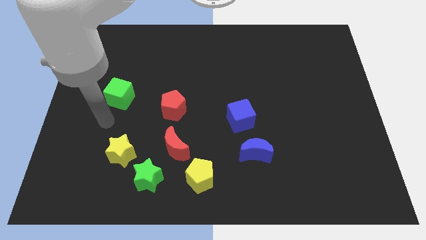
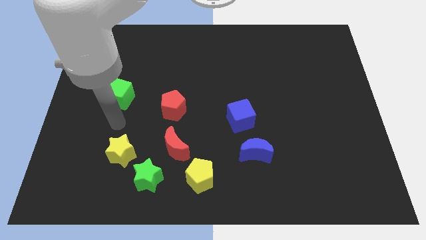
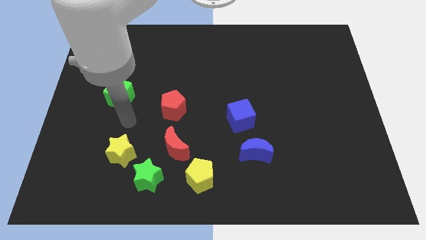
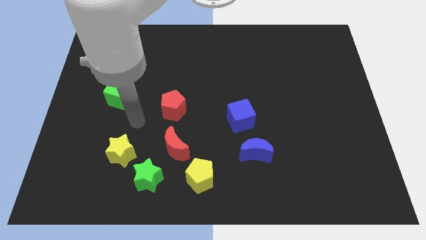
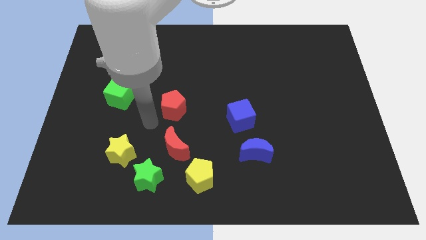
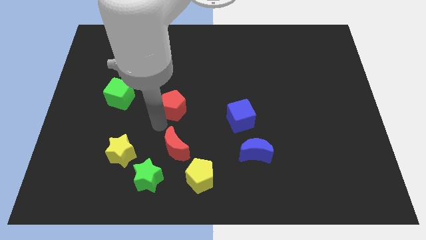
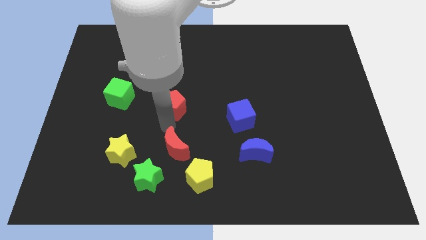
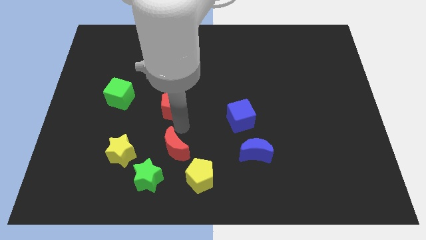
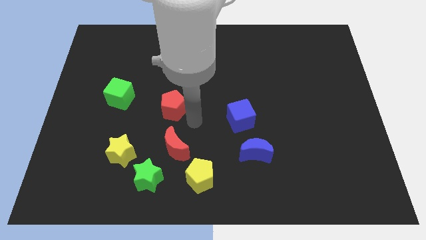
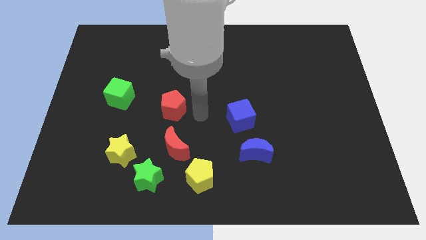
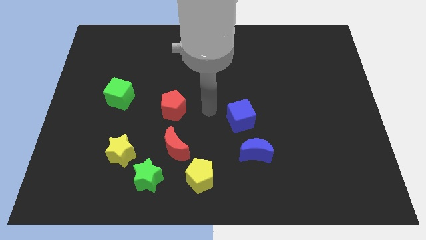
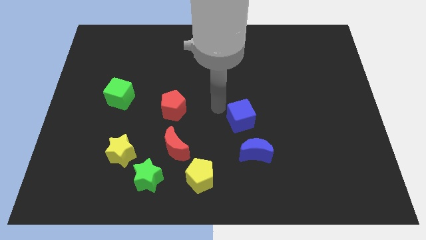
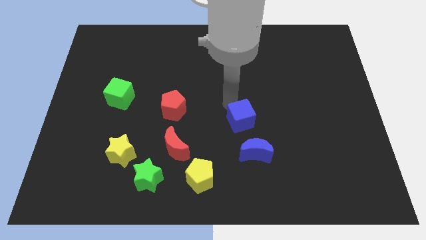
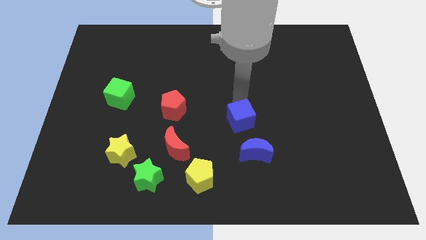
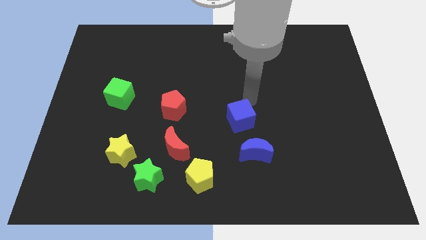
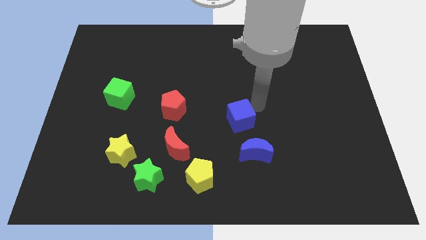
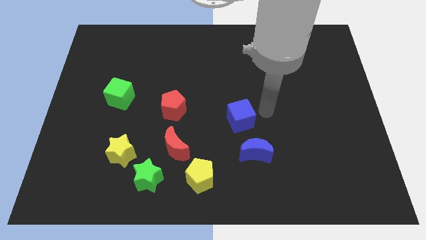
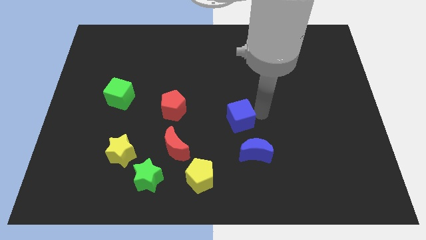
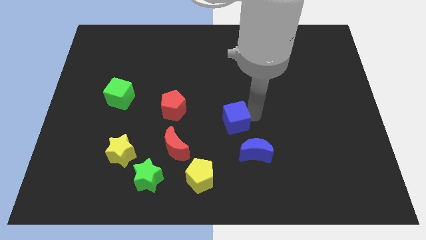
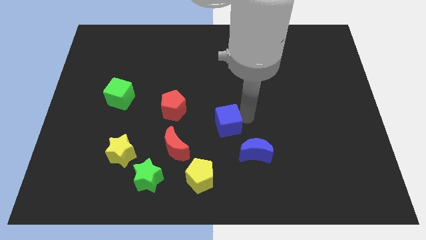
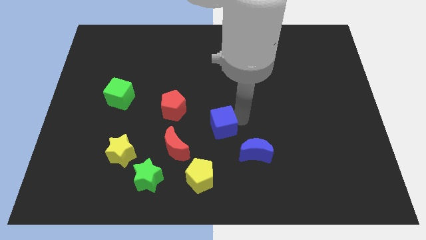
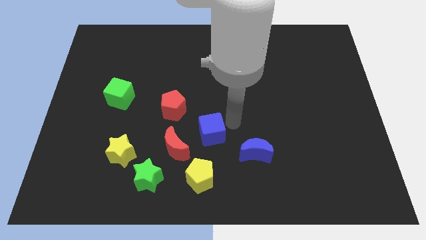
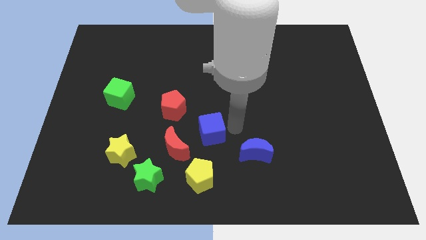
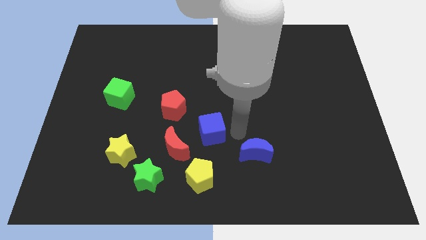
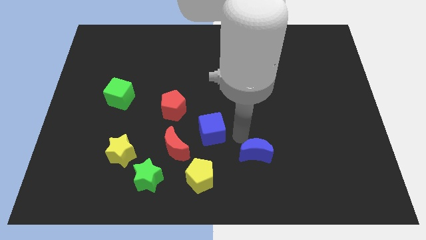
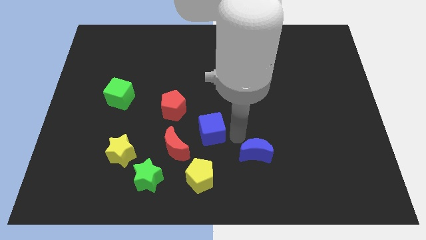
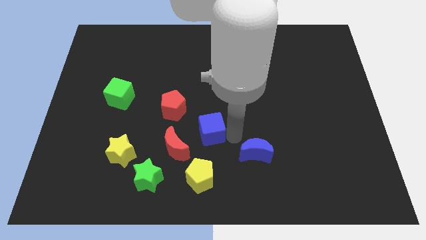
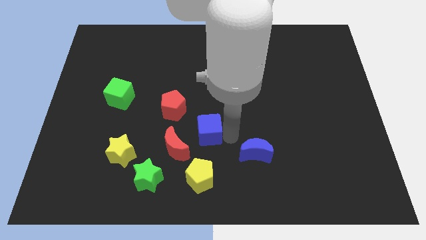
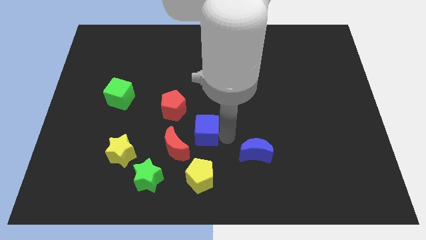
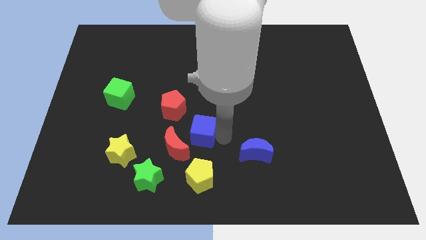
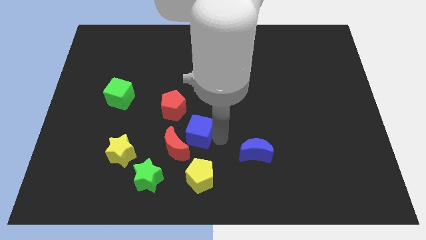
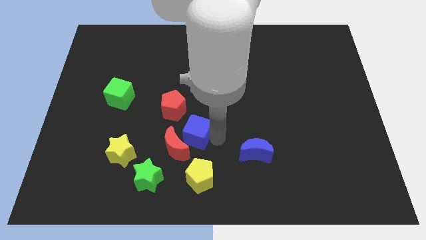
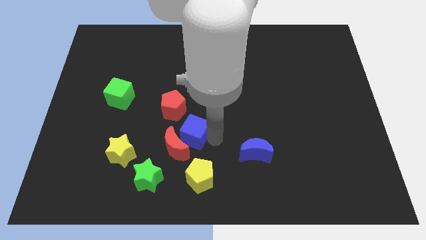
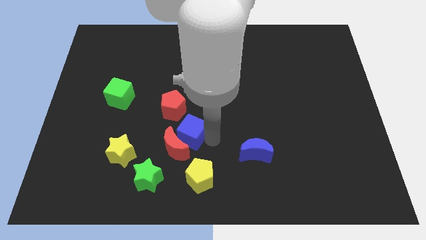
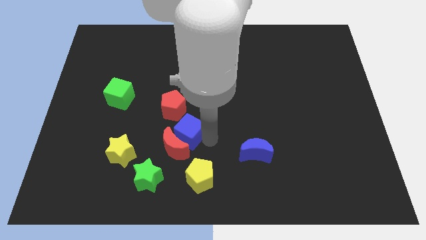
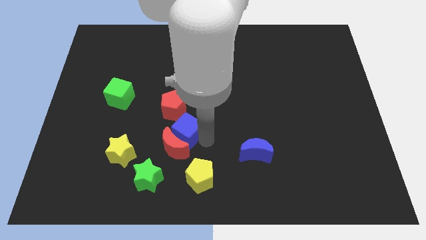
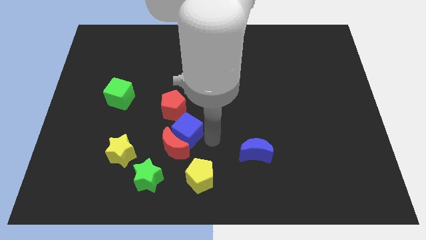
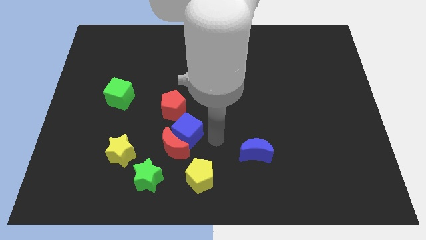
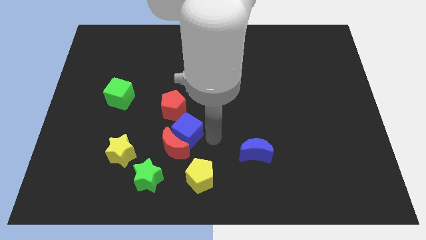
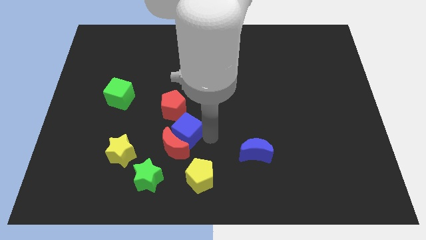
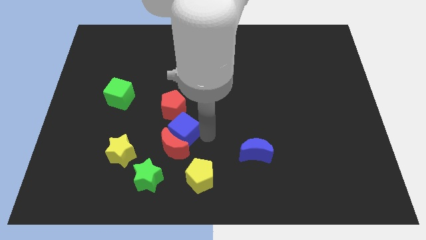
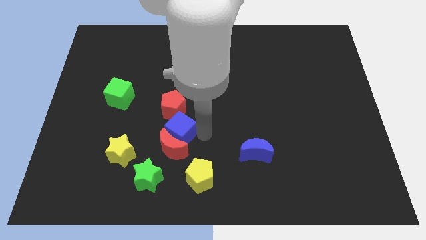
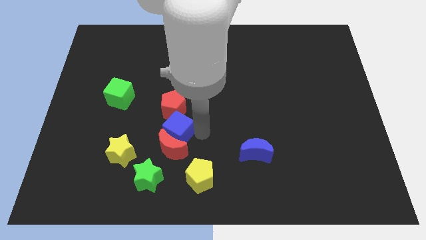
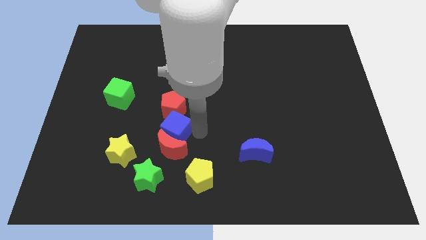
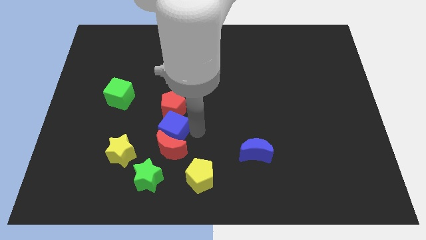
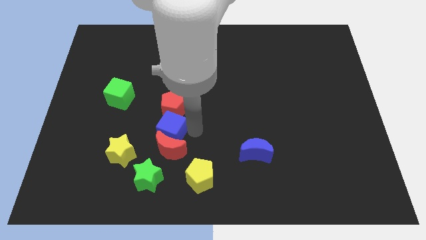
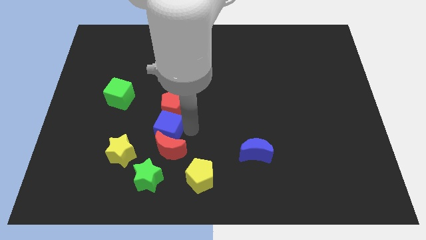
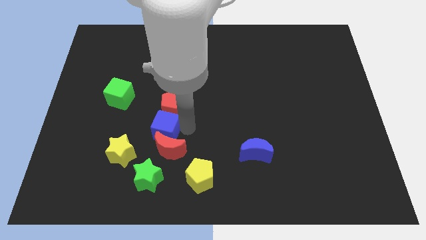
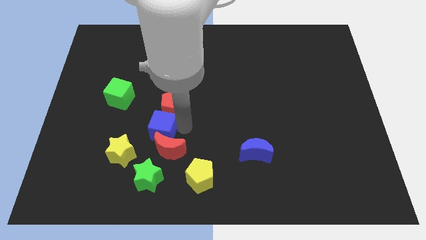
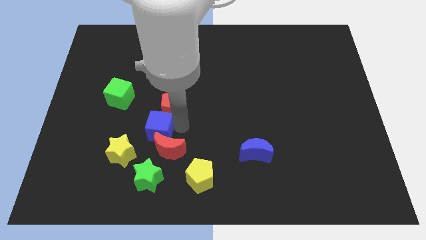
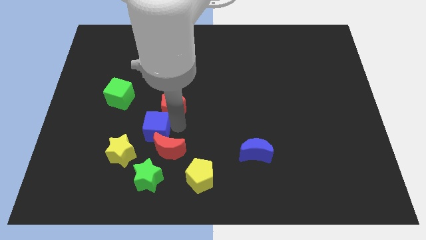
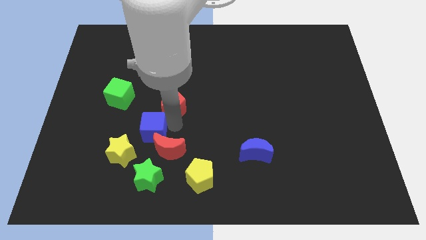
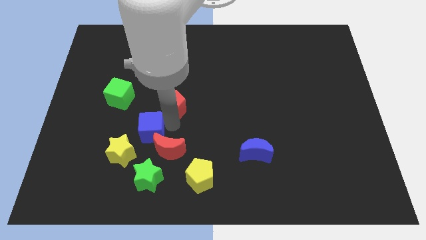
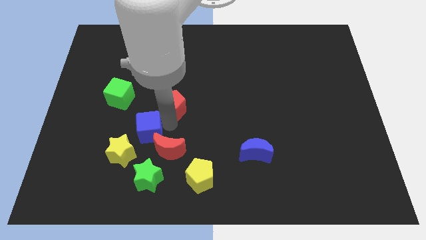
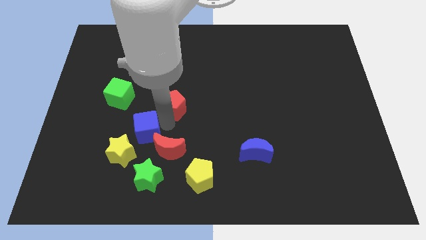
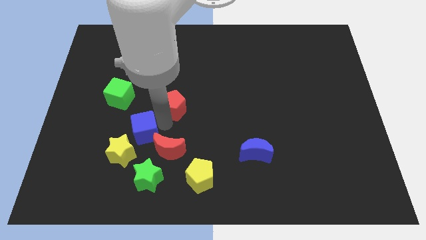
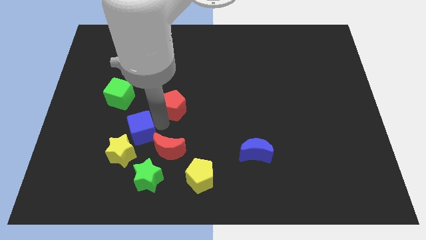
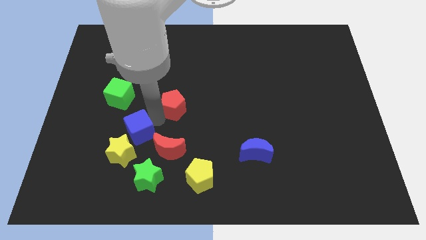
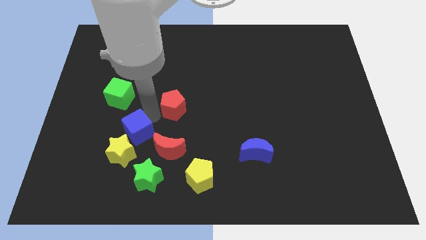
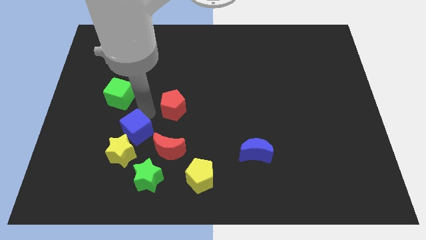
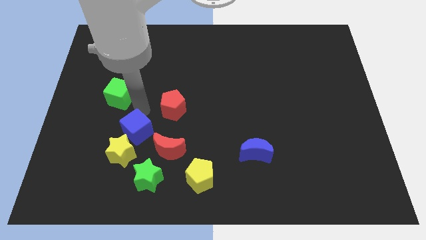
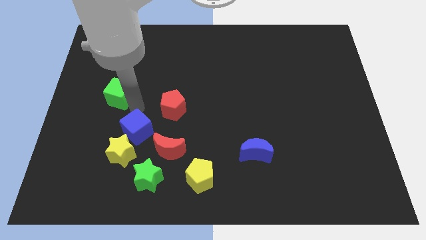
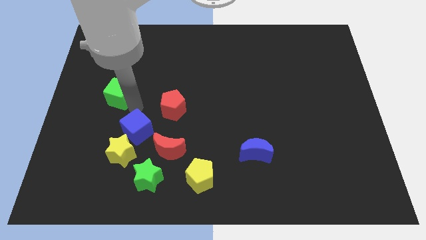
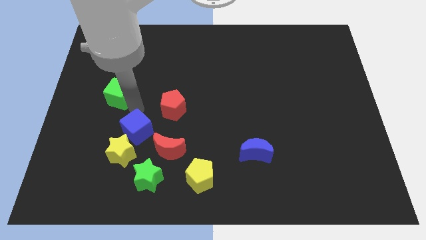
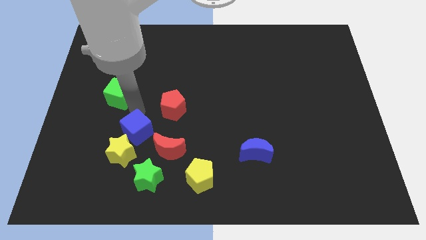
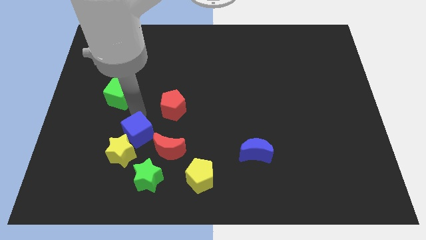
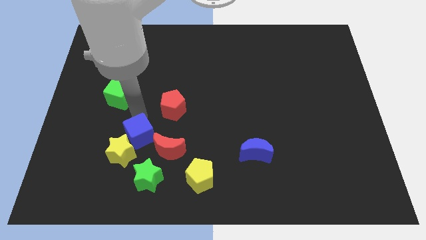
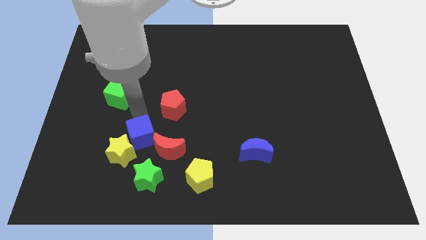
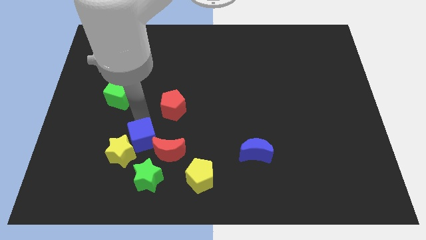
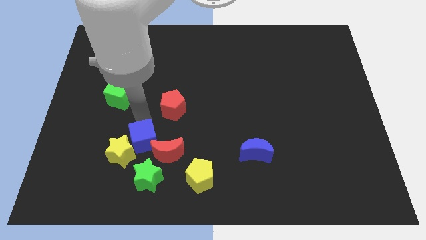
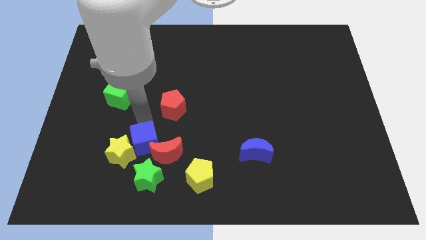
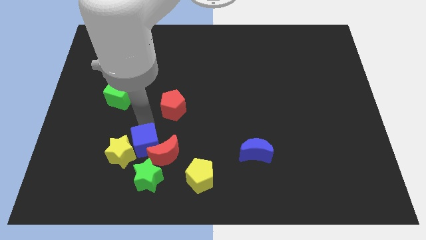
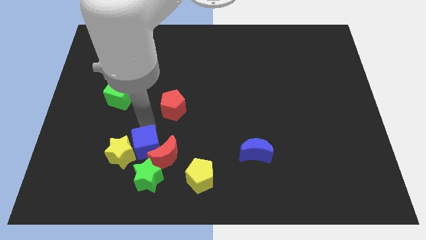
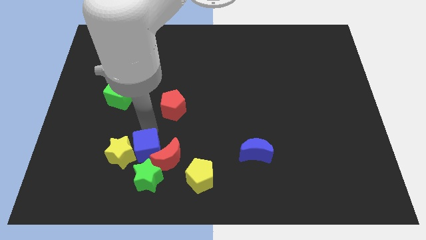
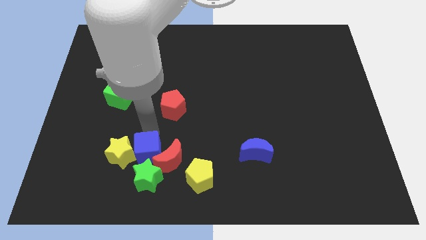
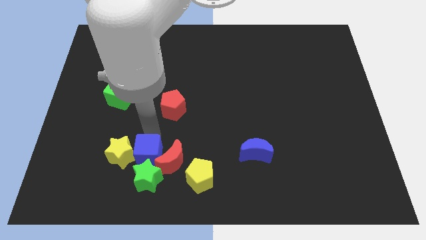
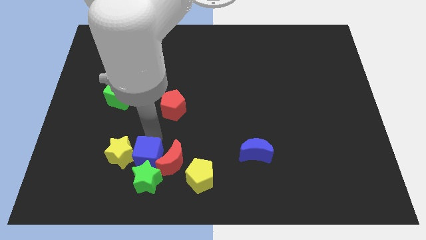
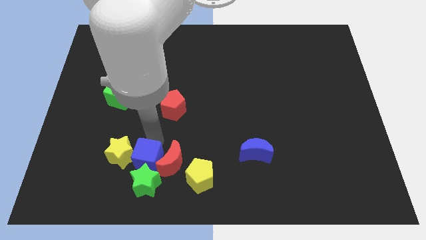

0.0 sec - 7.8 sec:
move the blue cube left of the yellow pentagon

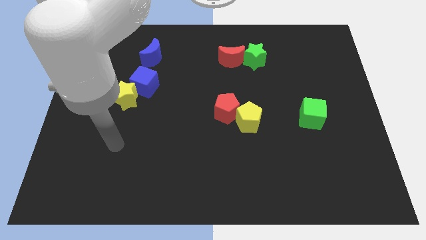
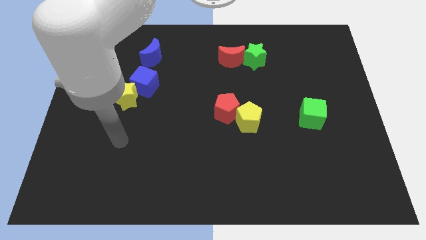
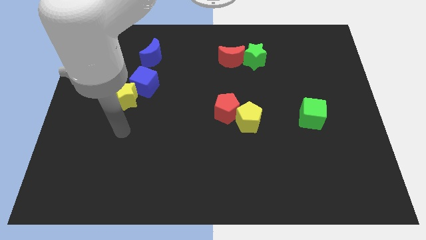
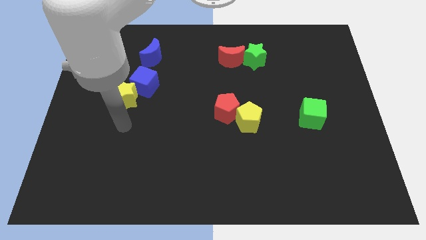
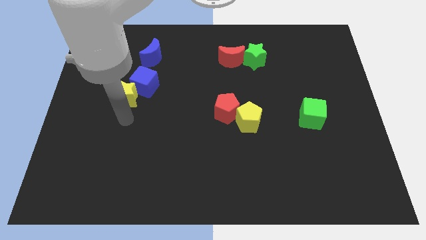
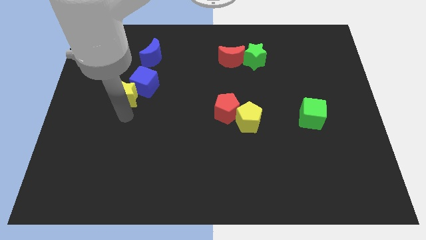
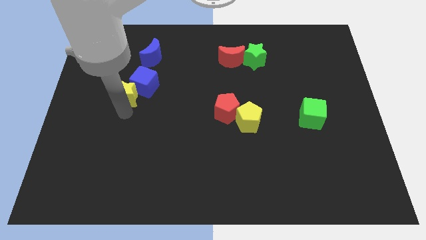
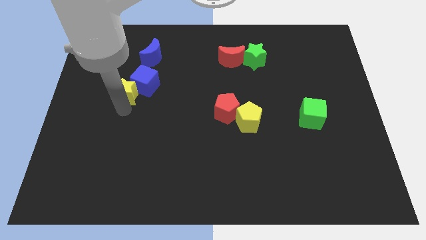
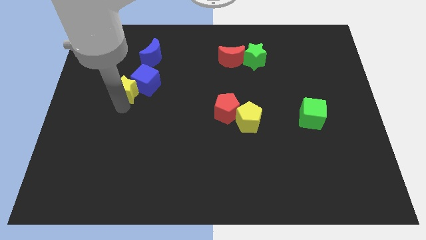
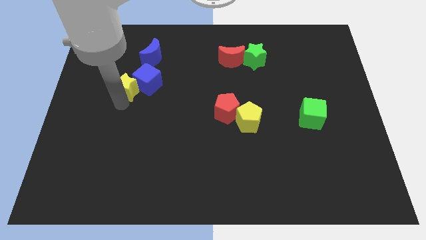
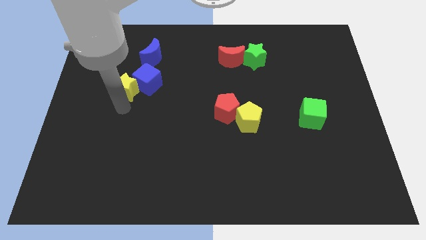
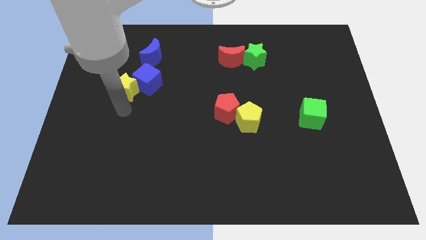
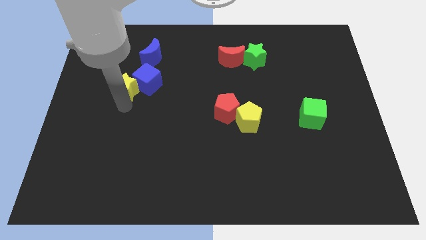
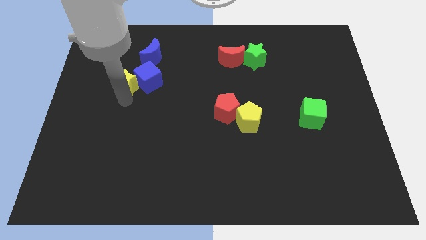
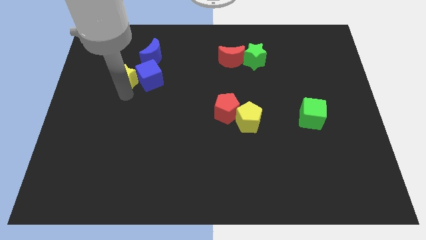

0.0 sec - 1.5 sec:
put the yellow star diagonally up and to the left of the blue cube
